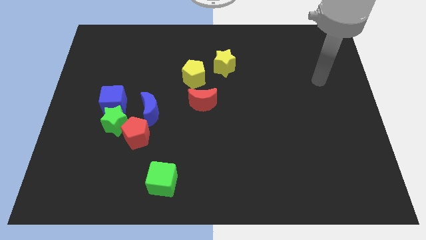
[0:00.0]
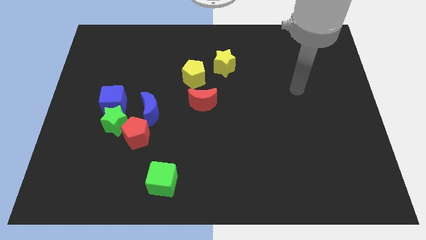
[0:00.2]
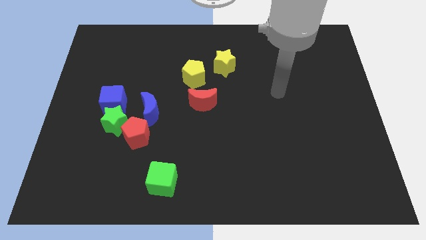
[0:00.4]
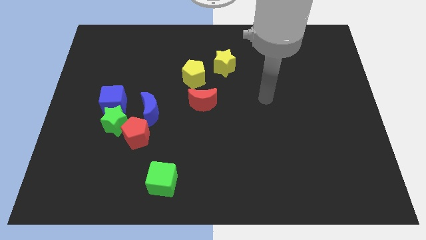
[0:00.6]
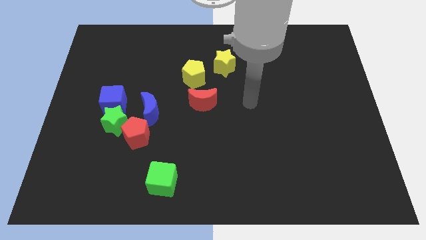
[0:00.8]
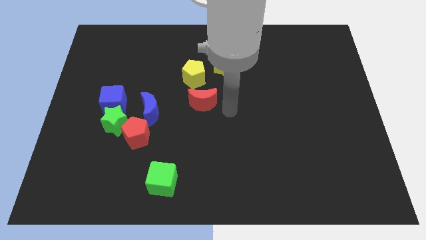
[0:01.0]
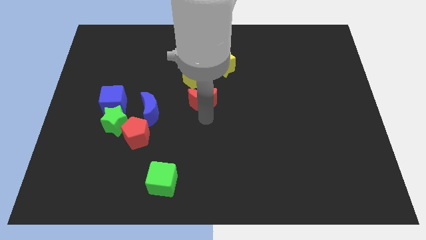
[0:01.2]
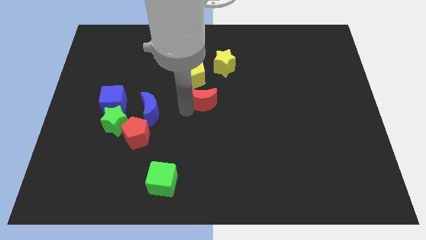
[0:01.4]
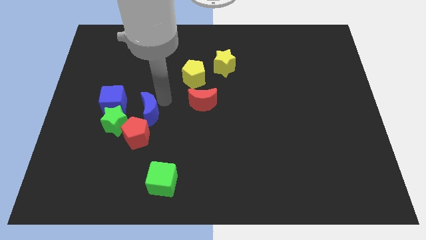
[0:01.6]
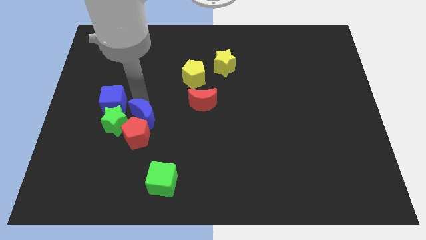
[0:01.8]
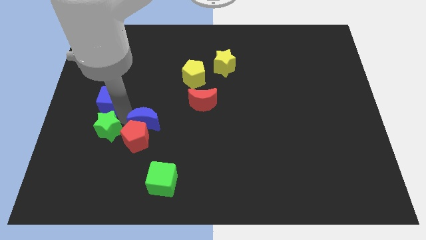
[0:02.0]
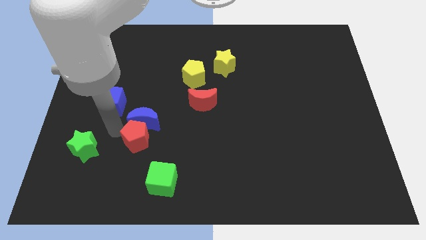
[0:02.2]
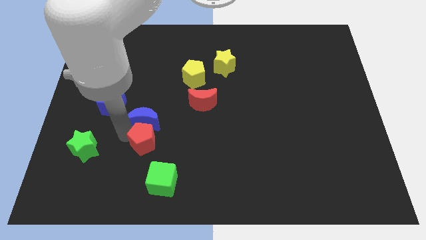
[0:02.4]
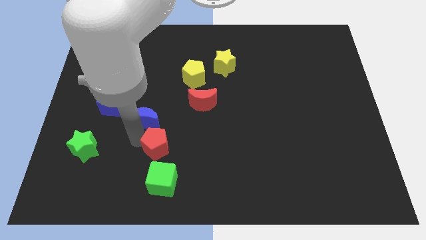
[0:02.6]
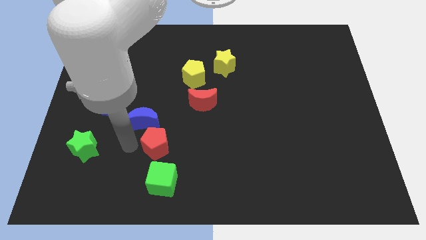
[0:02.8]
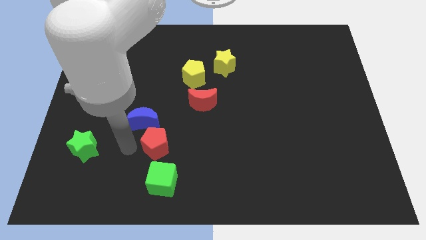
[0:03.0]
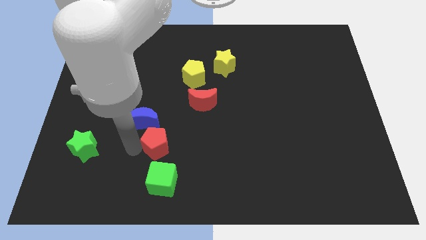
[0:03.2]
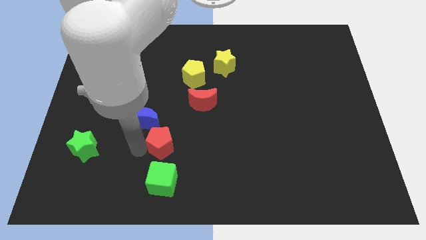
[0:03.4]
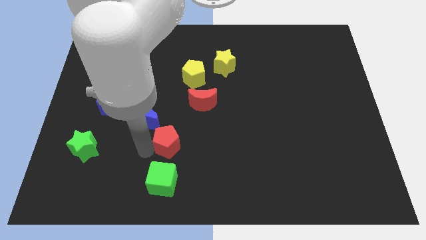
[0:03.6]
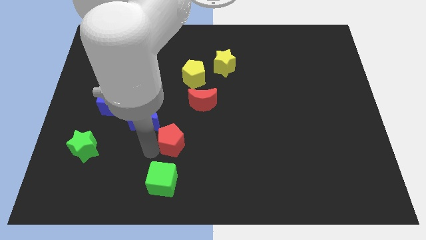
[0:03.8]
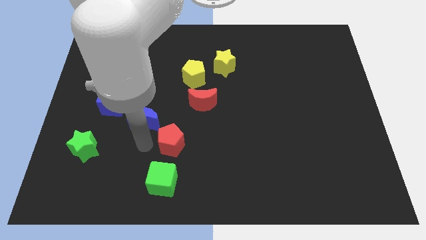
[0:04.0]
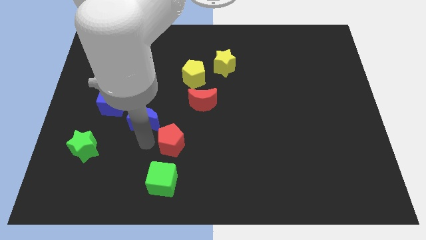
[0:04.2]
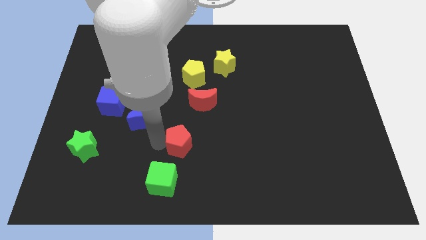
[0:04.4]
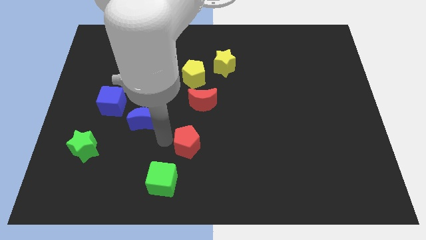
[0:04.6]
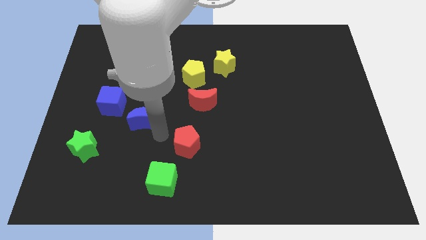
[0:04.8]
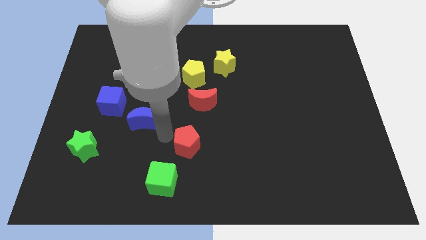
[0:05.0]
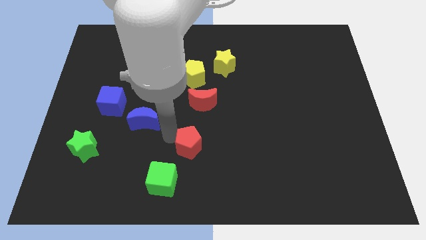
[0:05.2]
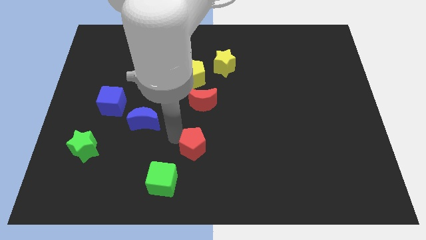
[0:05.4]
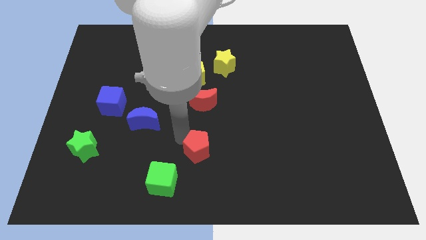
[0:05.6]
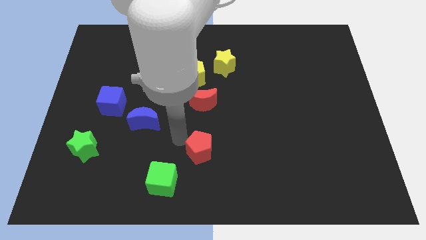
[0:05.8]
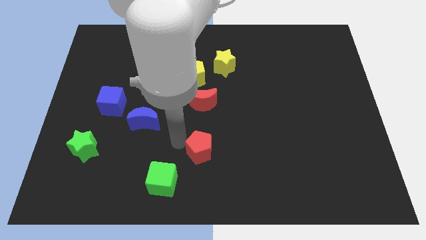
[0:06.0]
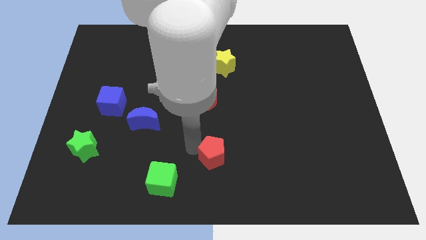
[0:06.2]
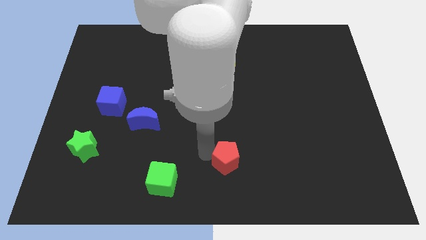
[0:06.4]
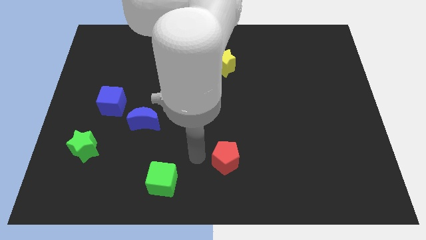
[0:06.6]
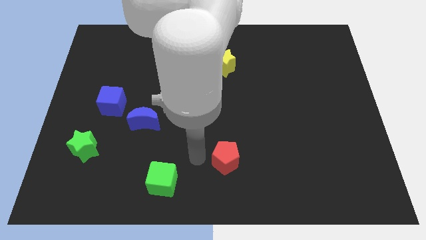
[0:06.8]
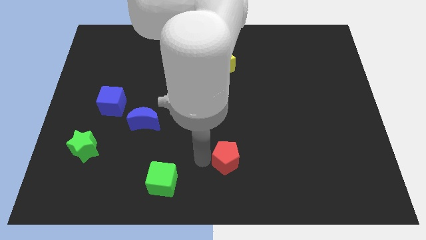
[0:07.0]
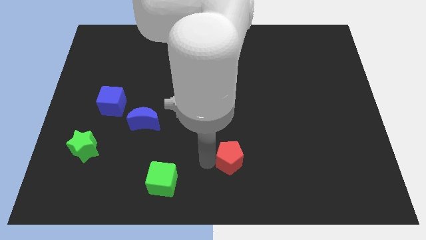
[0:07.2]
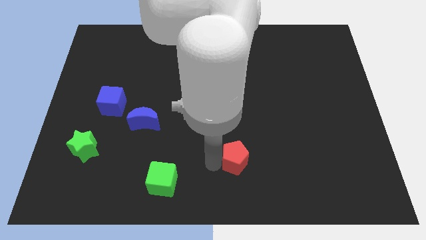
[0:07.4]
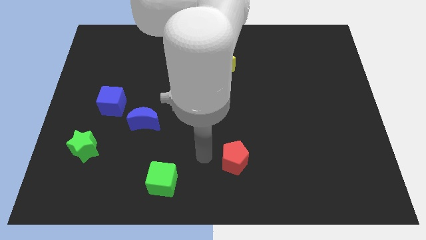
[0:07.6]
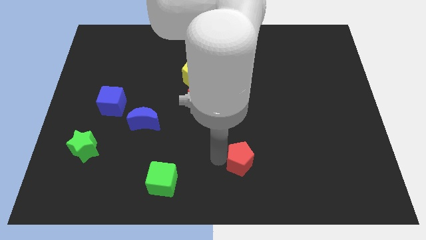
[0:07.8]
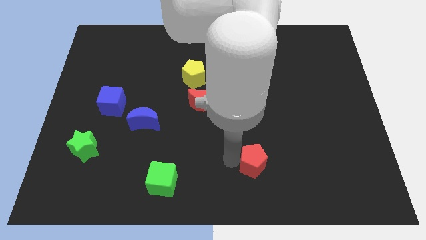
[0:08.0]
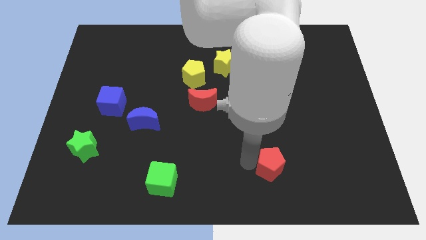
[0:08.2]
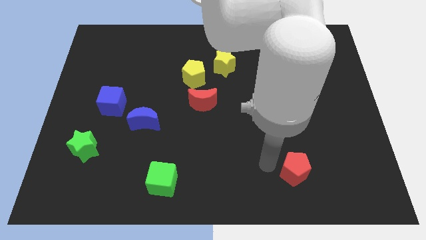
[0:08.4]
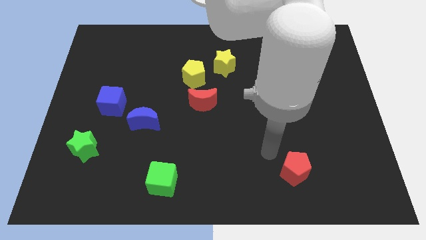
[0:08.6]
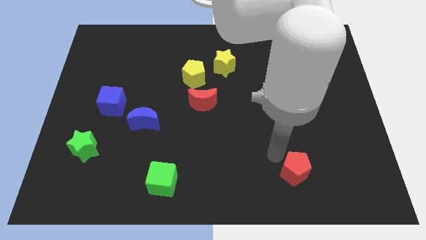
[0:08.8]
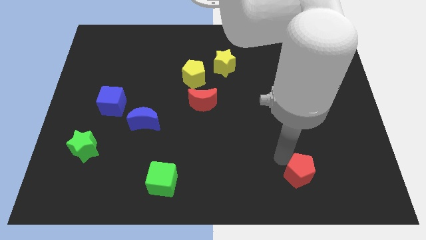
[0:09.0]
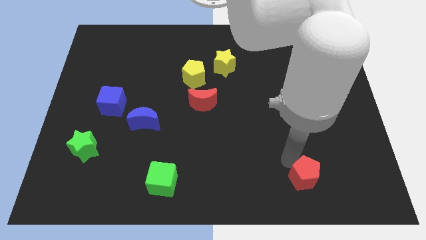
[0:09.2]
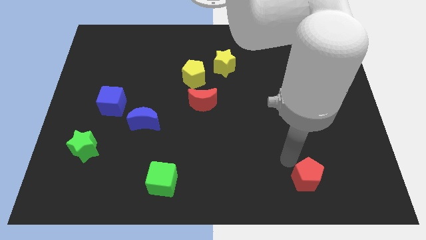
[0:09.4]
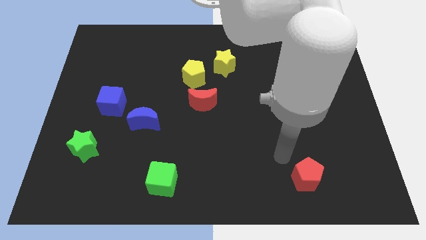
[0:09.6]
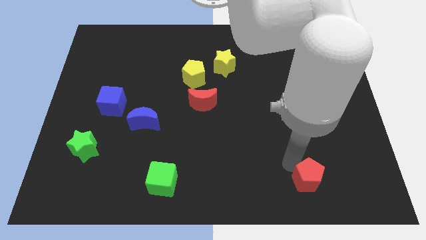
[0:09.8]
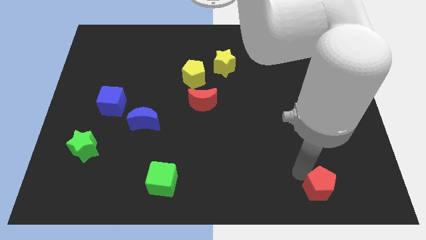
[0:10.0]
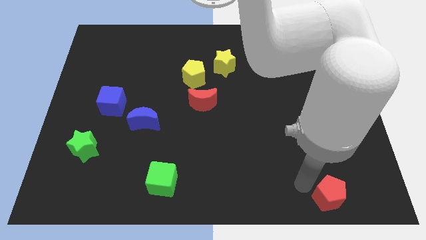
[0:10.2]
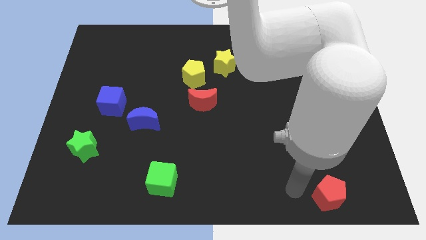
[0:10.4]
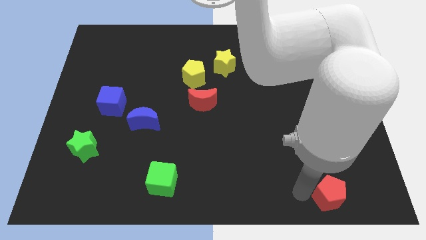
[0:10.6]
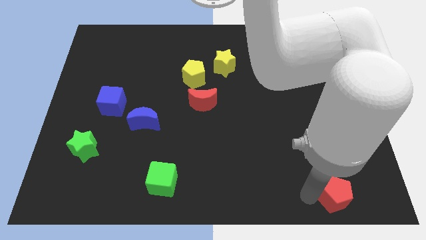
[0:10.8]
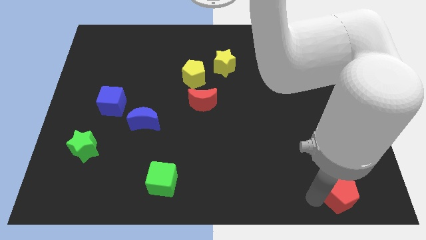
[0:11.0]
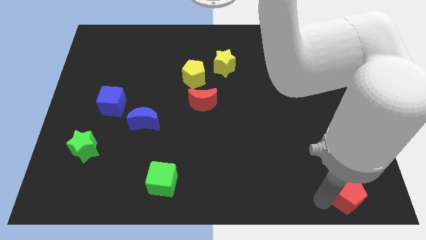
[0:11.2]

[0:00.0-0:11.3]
put the red pentagon to the bottom right

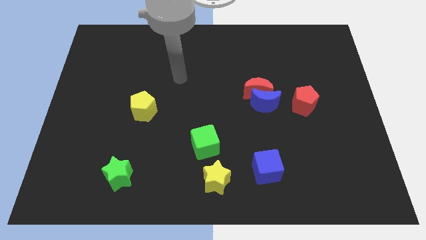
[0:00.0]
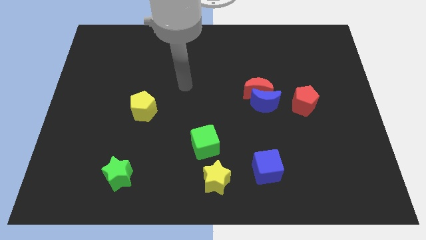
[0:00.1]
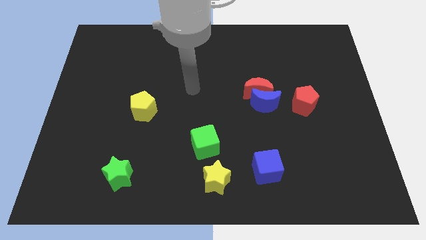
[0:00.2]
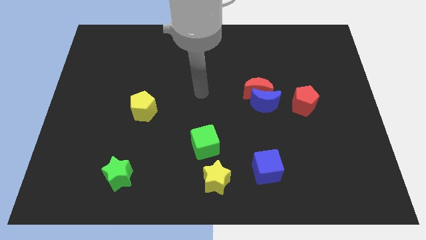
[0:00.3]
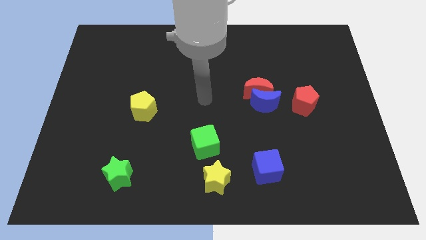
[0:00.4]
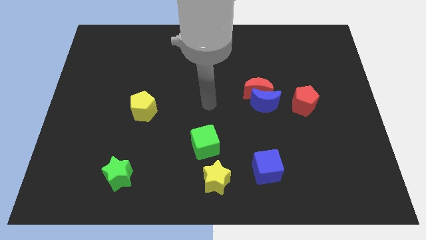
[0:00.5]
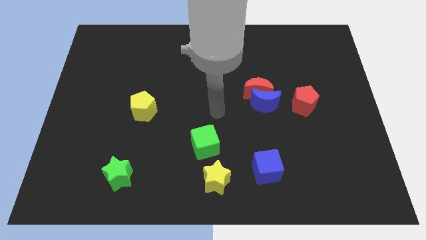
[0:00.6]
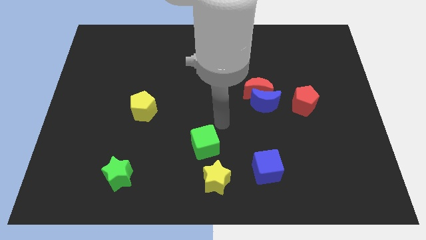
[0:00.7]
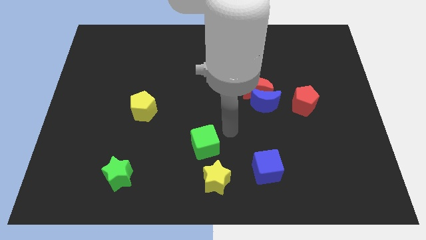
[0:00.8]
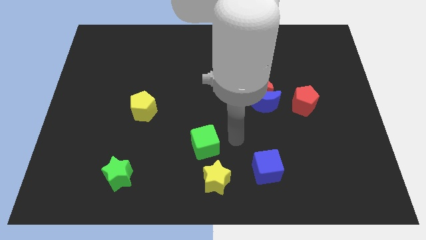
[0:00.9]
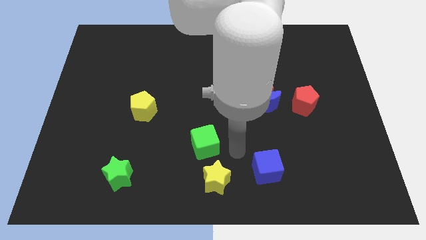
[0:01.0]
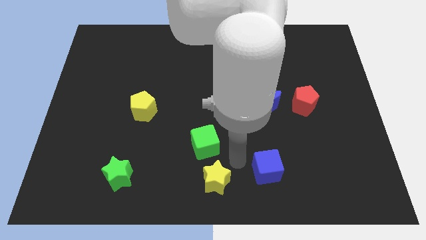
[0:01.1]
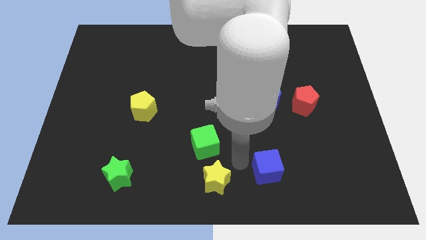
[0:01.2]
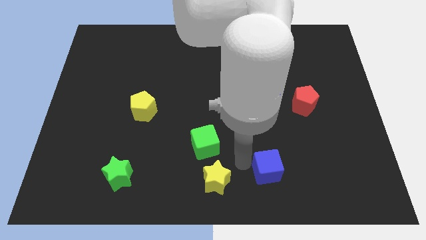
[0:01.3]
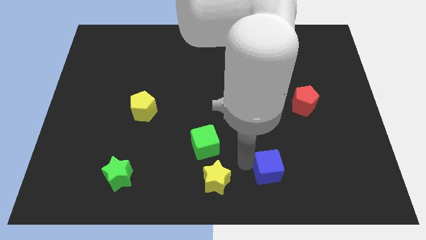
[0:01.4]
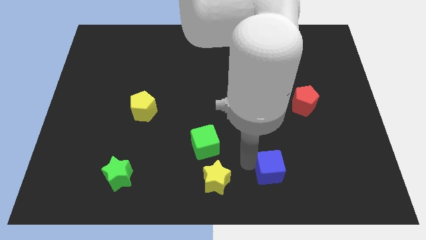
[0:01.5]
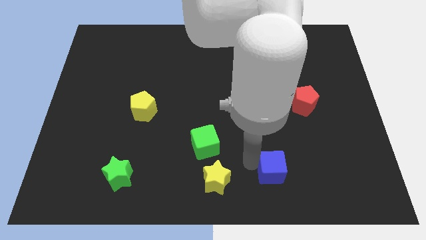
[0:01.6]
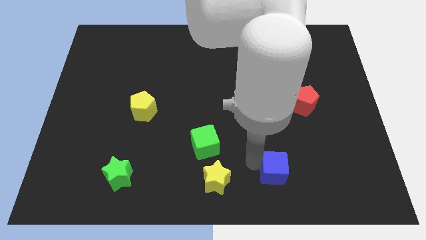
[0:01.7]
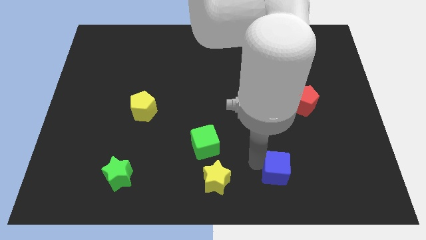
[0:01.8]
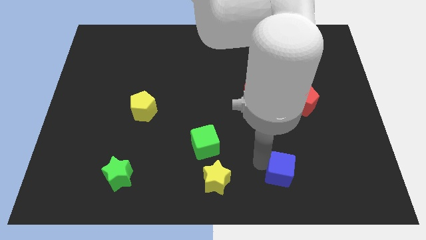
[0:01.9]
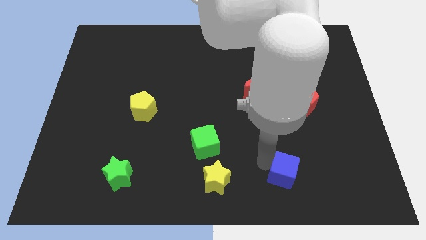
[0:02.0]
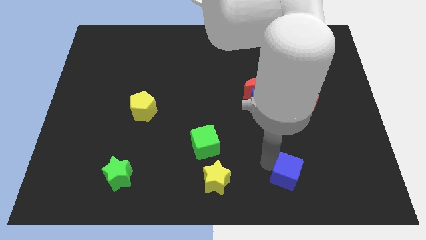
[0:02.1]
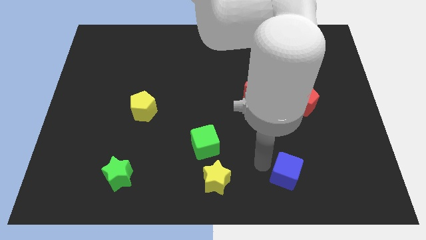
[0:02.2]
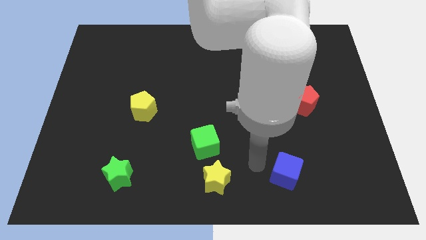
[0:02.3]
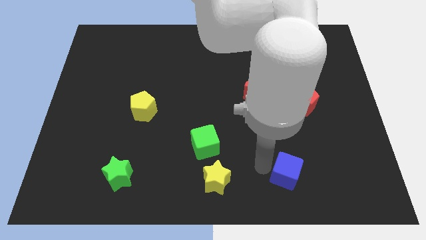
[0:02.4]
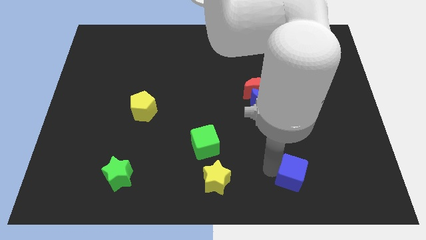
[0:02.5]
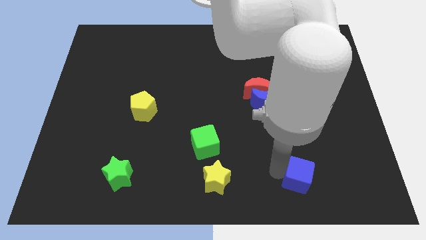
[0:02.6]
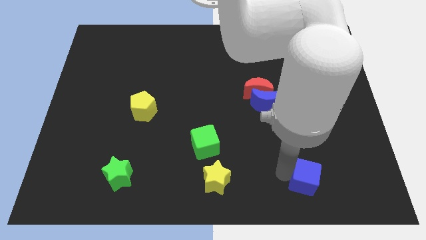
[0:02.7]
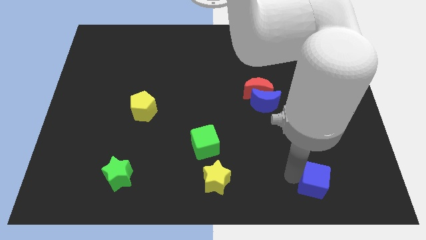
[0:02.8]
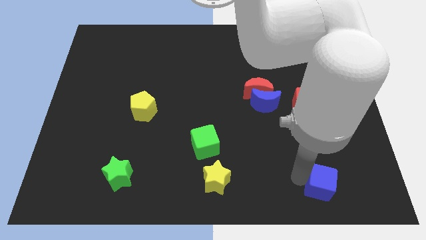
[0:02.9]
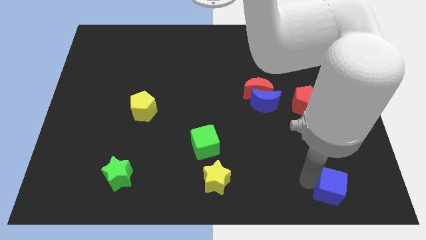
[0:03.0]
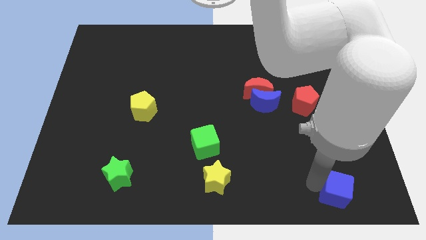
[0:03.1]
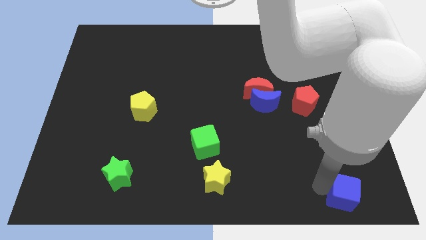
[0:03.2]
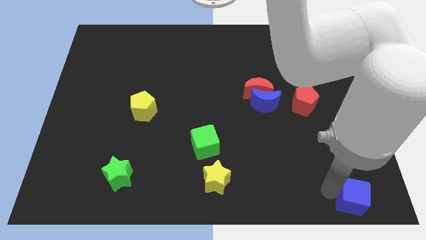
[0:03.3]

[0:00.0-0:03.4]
move the blue cube to the bottom right corner
